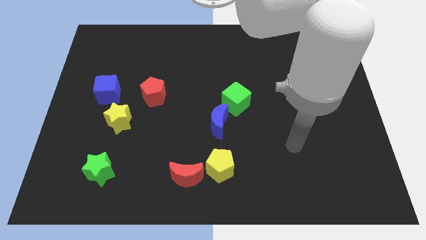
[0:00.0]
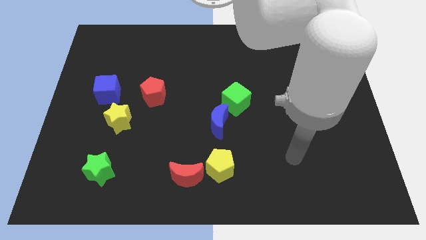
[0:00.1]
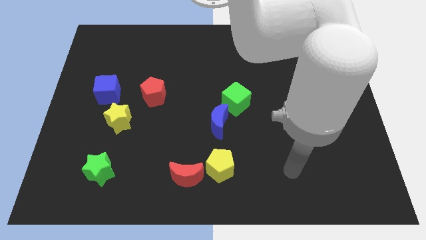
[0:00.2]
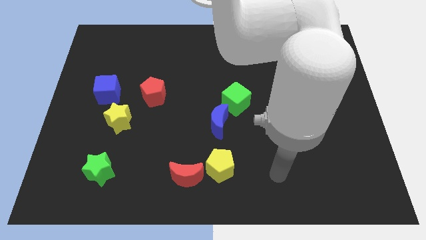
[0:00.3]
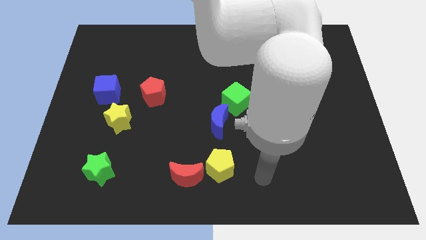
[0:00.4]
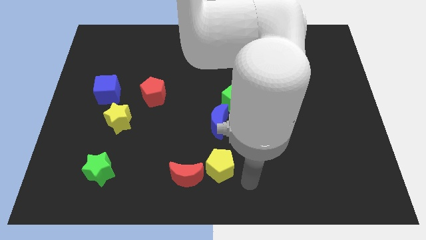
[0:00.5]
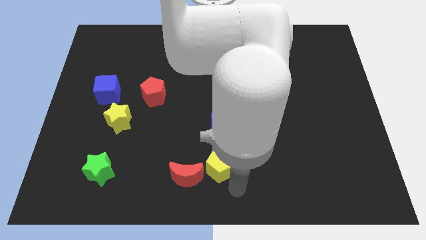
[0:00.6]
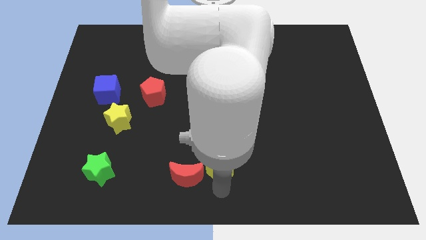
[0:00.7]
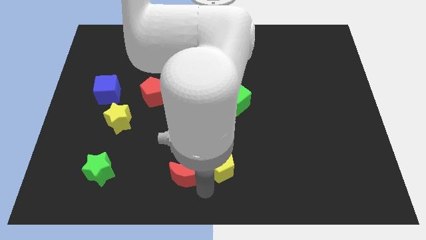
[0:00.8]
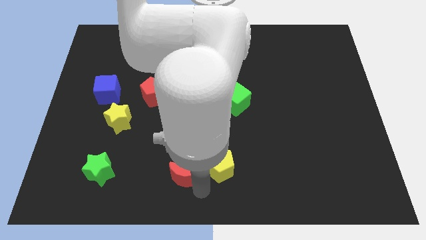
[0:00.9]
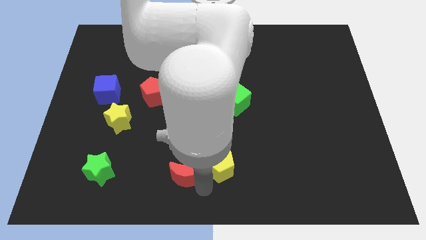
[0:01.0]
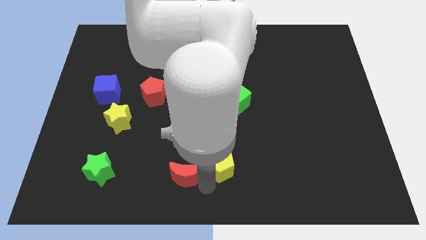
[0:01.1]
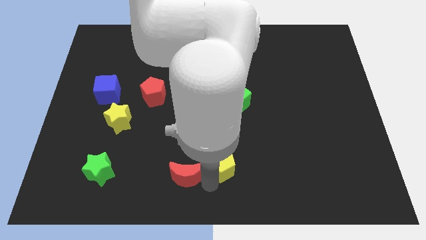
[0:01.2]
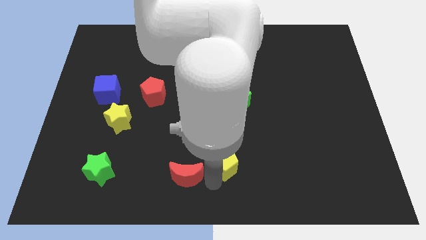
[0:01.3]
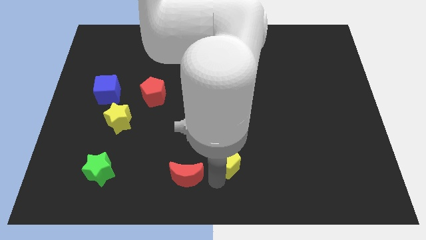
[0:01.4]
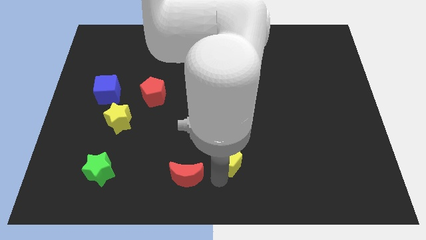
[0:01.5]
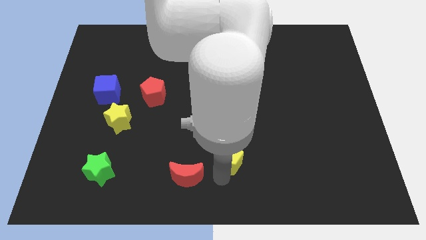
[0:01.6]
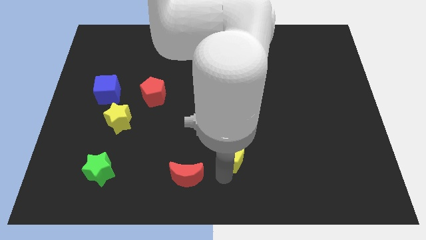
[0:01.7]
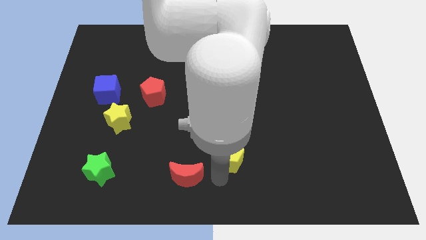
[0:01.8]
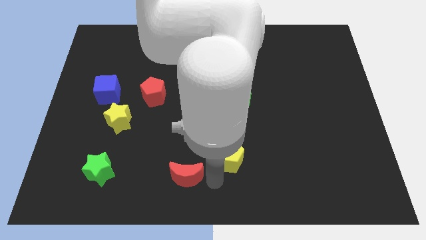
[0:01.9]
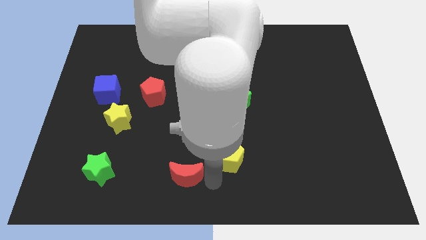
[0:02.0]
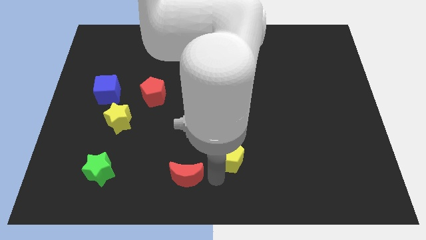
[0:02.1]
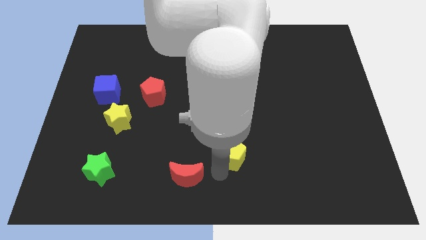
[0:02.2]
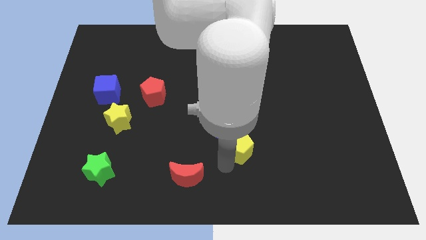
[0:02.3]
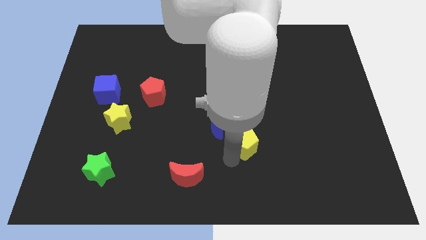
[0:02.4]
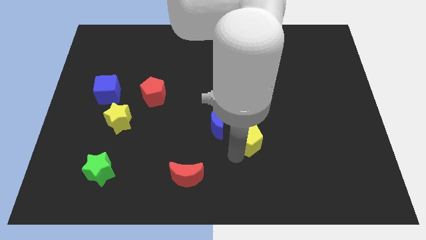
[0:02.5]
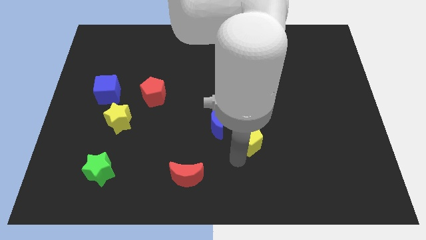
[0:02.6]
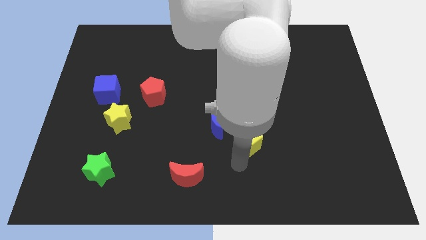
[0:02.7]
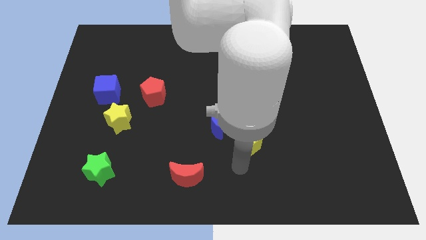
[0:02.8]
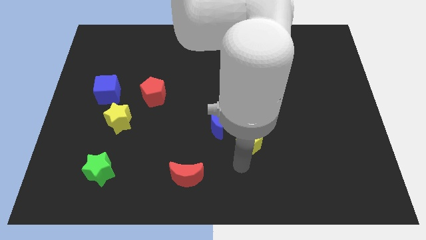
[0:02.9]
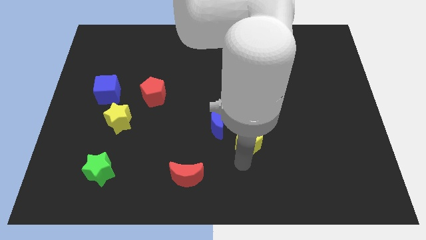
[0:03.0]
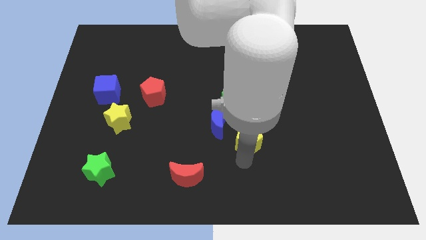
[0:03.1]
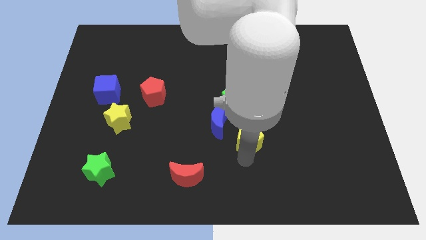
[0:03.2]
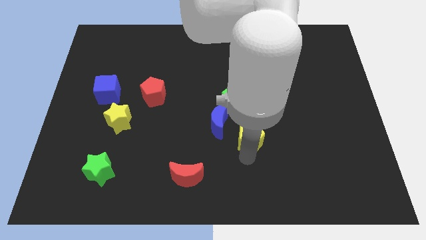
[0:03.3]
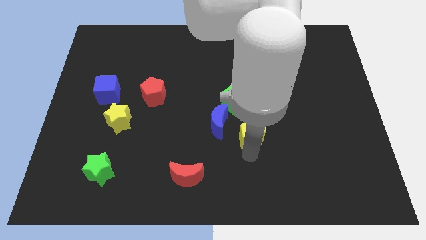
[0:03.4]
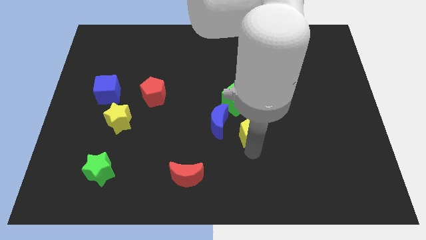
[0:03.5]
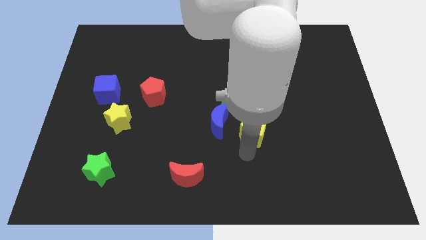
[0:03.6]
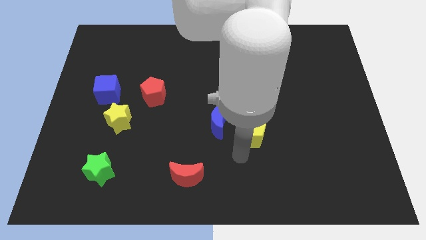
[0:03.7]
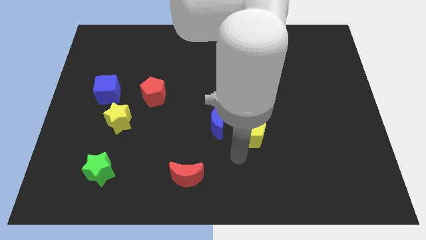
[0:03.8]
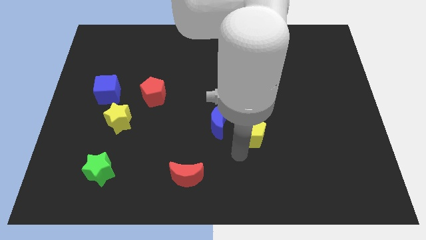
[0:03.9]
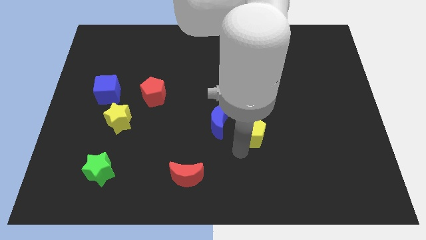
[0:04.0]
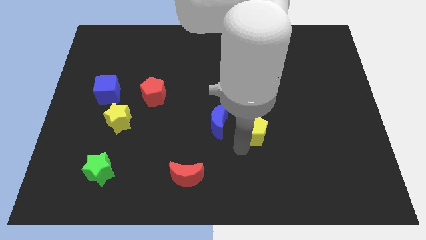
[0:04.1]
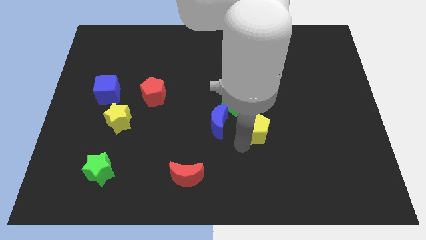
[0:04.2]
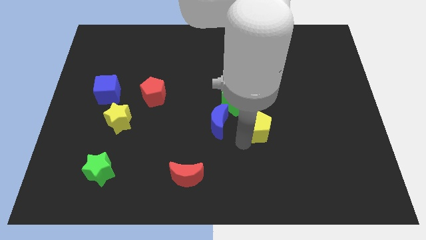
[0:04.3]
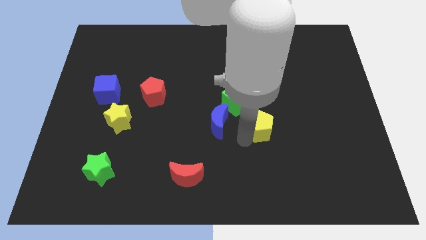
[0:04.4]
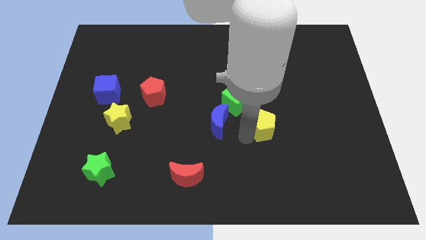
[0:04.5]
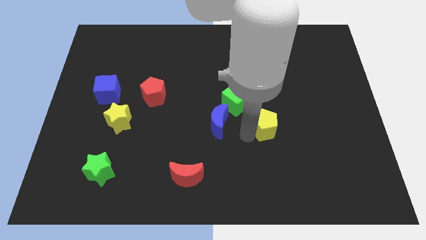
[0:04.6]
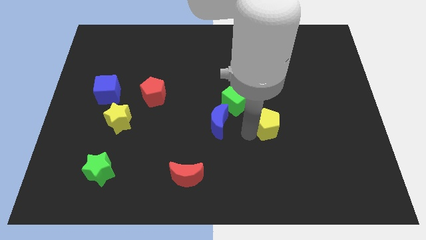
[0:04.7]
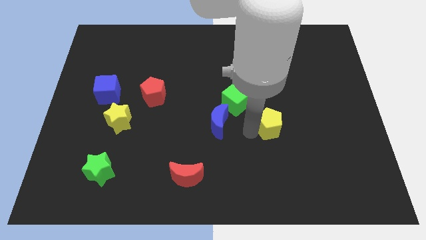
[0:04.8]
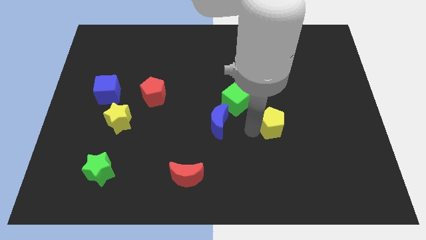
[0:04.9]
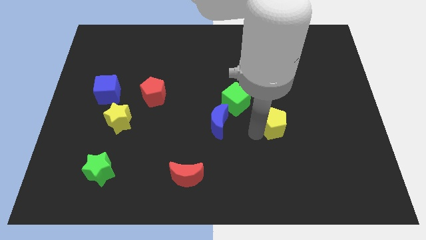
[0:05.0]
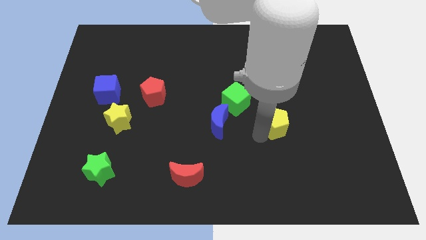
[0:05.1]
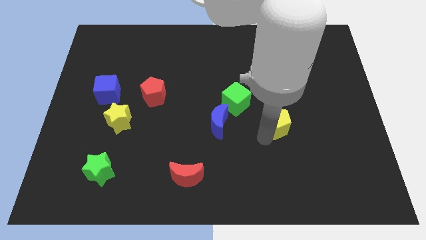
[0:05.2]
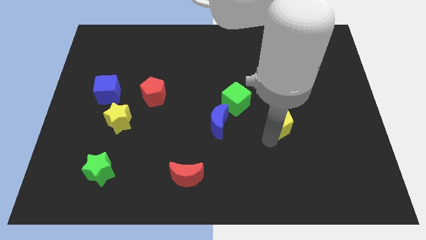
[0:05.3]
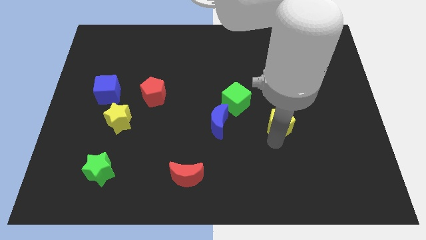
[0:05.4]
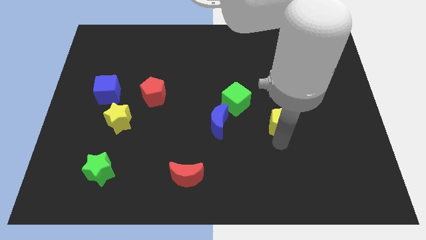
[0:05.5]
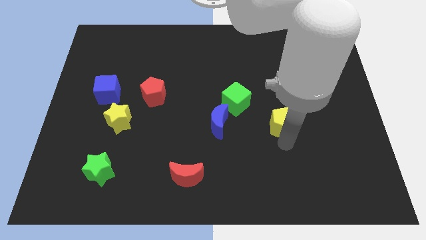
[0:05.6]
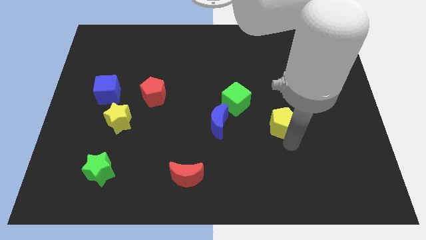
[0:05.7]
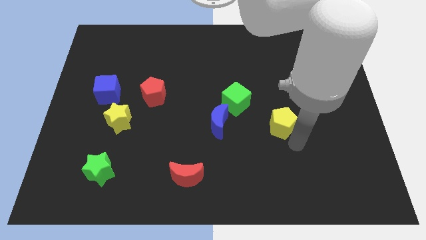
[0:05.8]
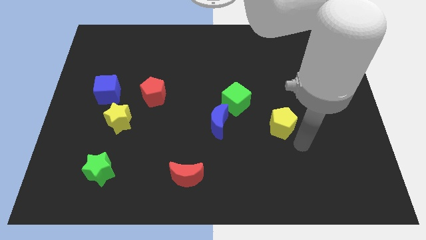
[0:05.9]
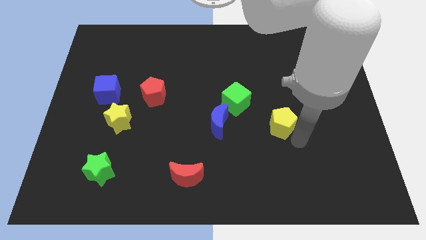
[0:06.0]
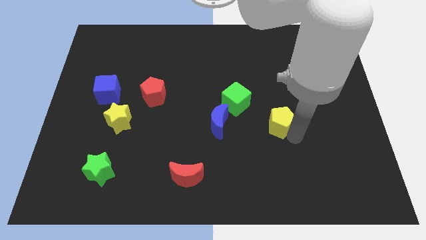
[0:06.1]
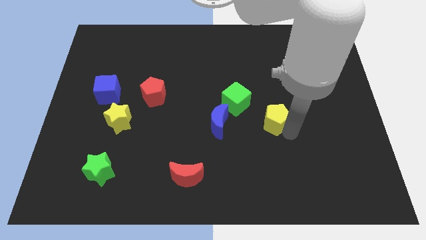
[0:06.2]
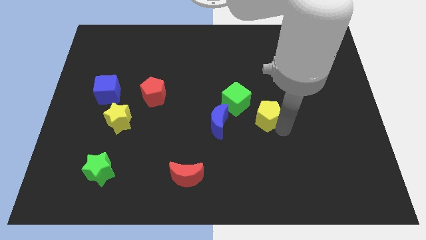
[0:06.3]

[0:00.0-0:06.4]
slide the yellow pentagon just right of the green cube

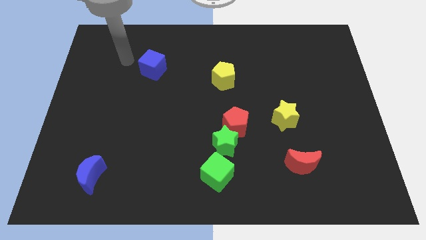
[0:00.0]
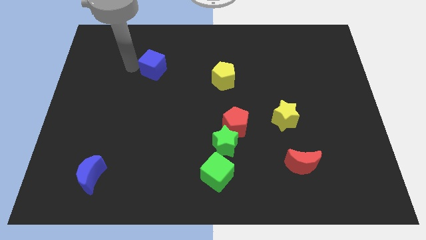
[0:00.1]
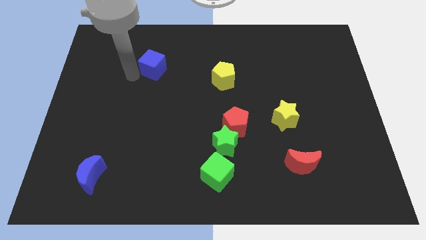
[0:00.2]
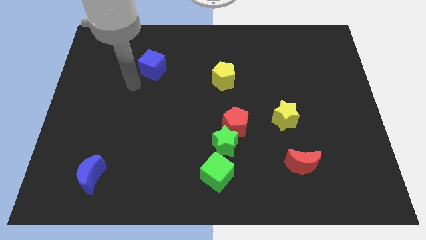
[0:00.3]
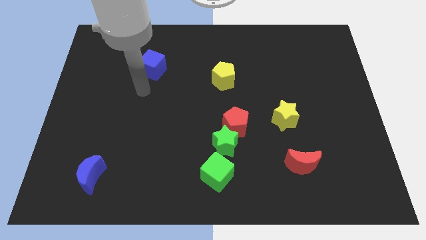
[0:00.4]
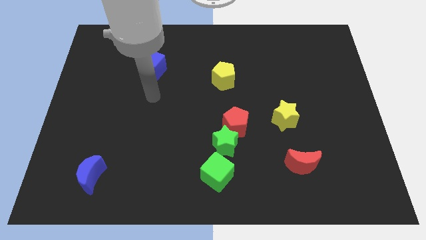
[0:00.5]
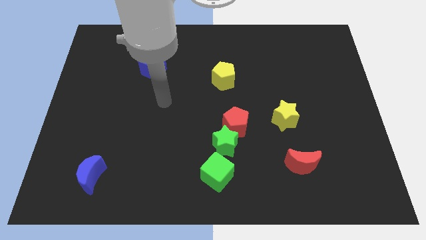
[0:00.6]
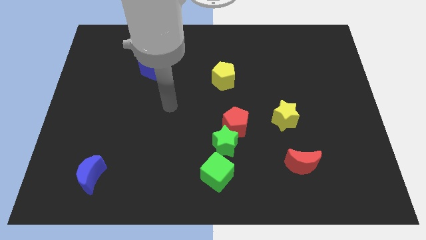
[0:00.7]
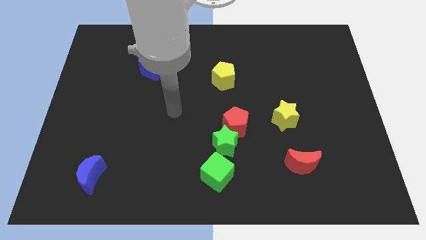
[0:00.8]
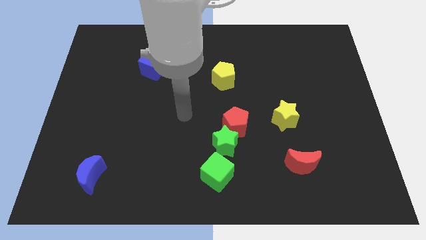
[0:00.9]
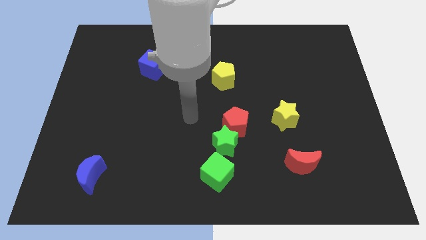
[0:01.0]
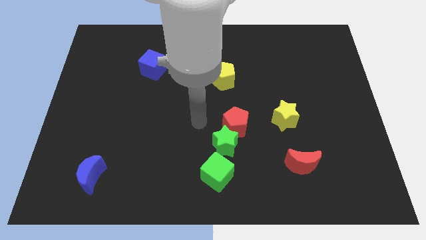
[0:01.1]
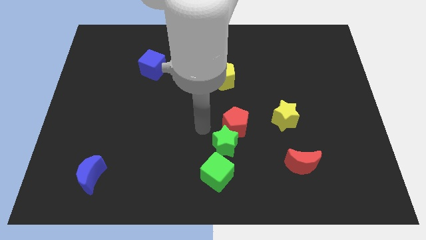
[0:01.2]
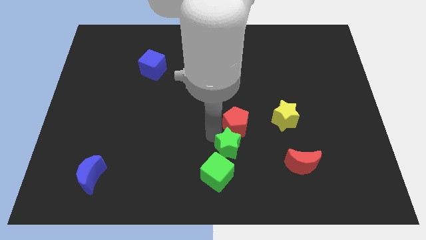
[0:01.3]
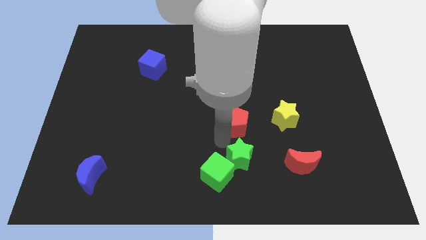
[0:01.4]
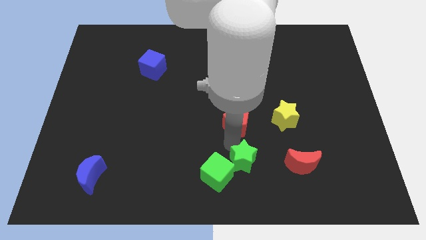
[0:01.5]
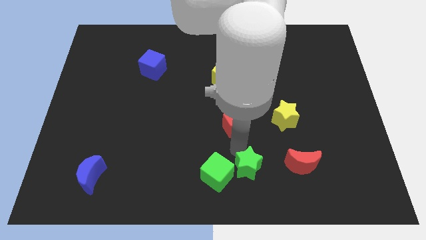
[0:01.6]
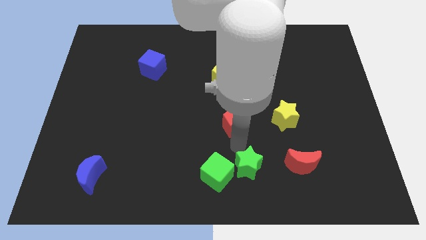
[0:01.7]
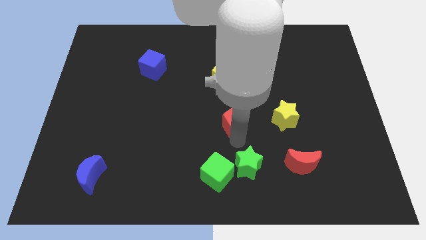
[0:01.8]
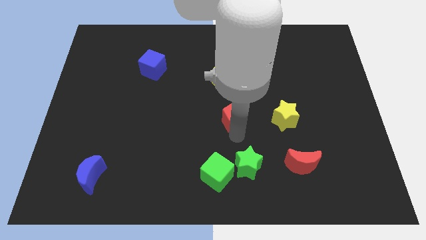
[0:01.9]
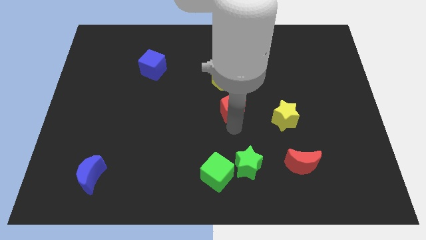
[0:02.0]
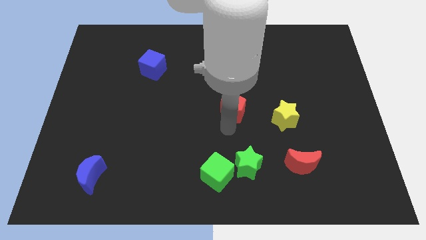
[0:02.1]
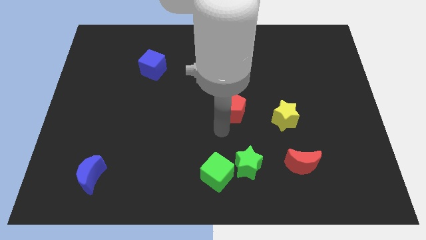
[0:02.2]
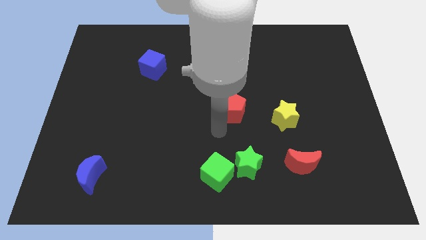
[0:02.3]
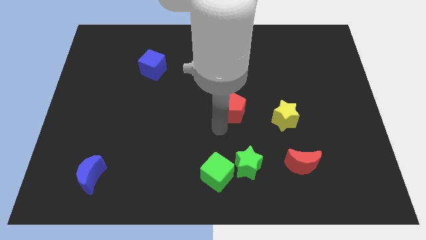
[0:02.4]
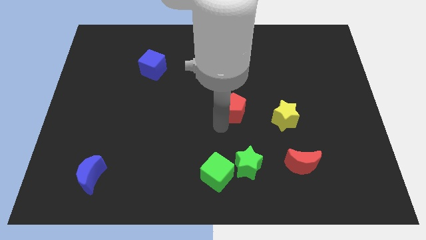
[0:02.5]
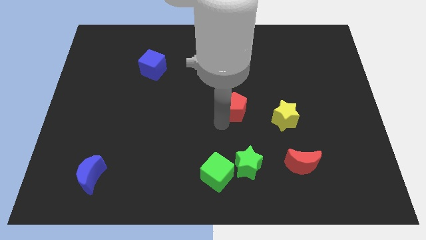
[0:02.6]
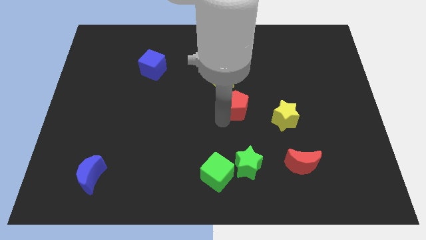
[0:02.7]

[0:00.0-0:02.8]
move the red pentagon to the bottom right side of the yellow pentagon
